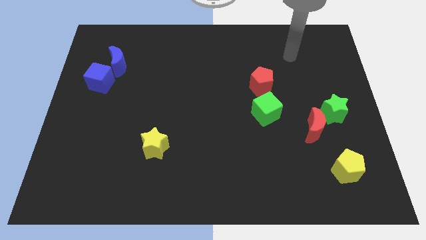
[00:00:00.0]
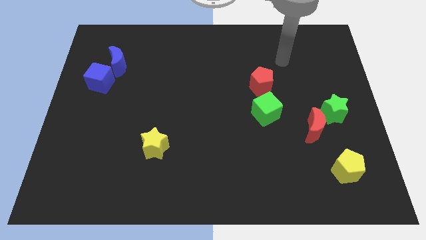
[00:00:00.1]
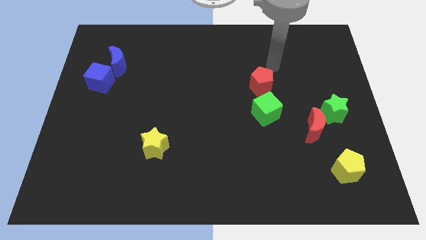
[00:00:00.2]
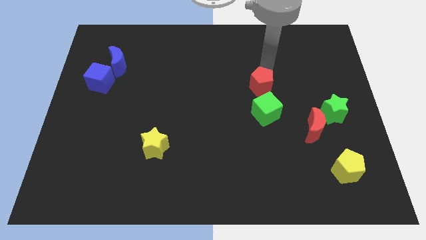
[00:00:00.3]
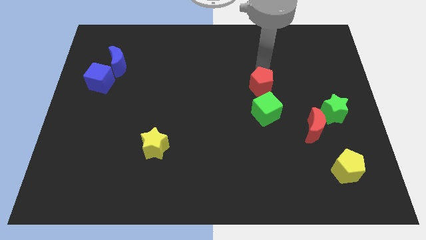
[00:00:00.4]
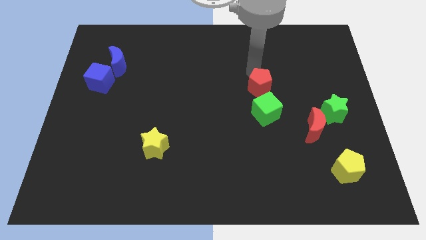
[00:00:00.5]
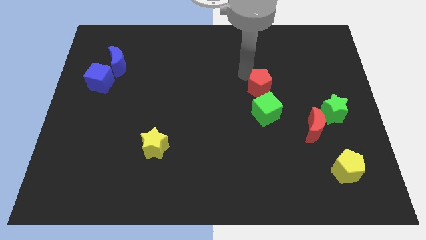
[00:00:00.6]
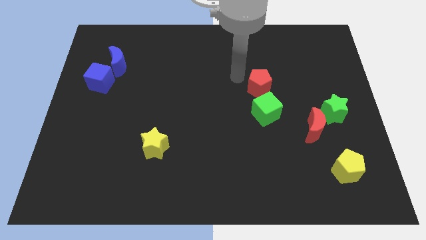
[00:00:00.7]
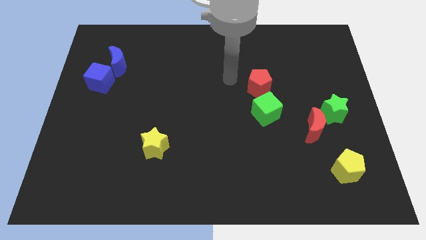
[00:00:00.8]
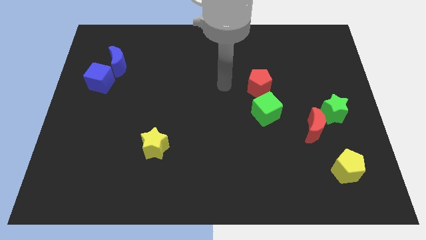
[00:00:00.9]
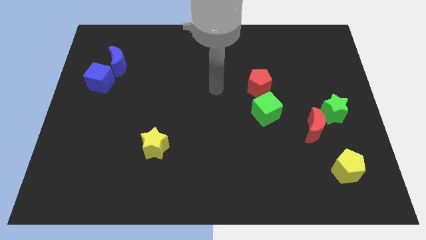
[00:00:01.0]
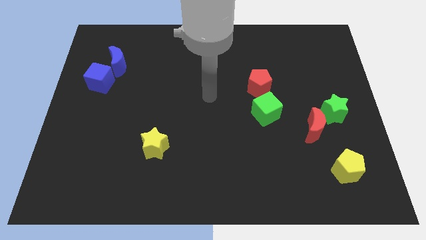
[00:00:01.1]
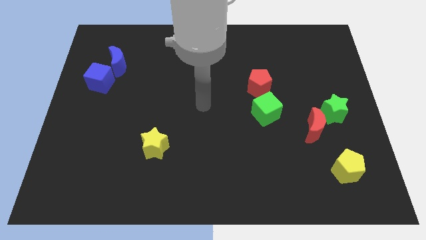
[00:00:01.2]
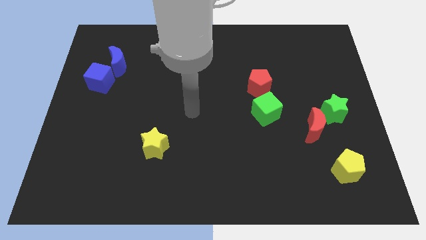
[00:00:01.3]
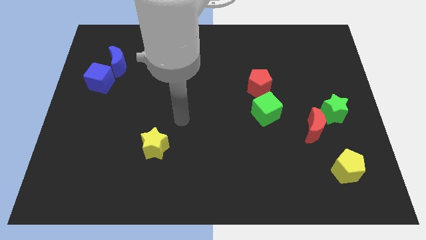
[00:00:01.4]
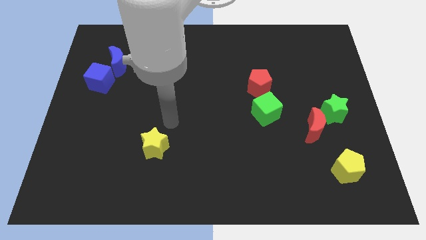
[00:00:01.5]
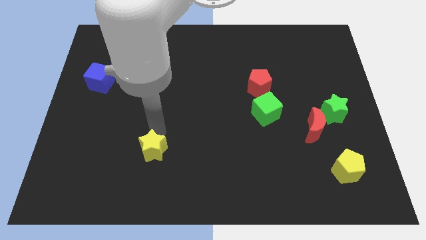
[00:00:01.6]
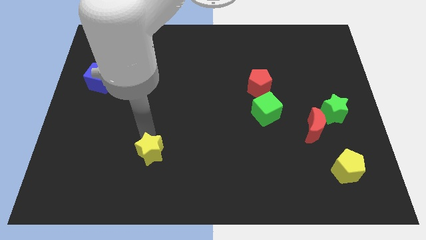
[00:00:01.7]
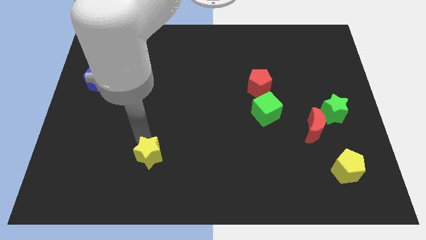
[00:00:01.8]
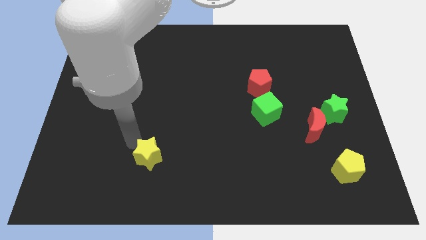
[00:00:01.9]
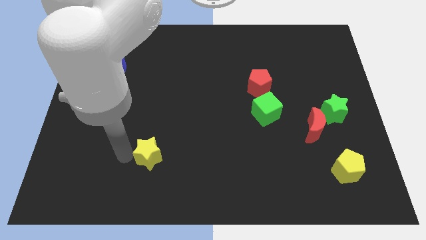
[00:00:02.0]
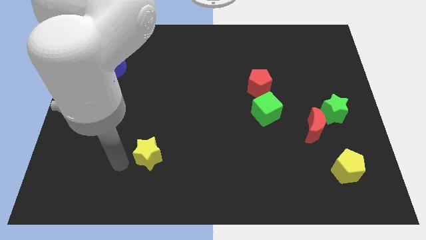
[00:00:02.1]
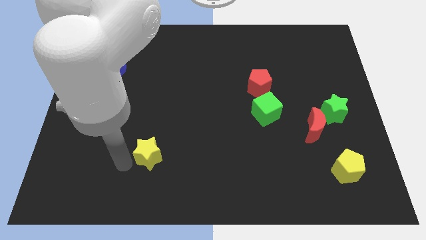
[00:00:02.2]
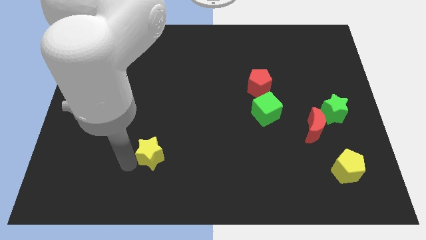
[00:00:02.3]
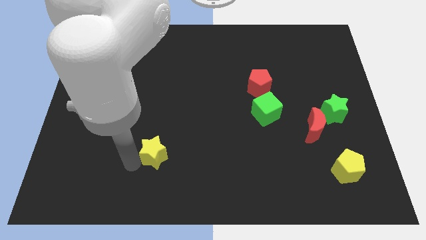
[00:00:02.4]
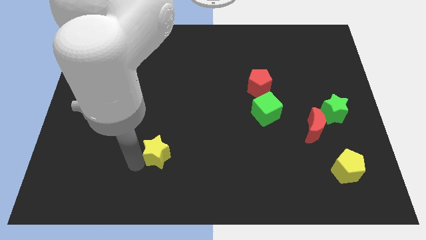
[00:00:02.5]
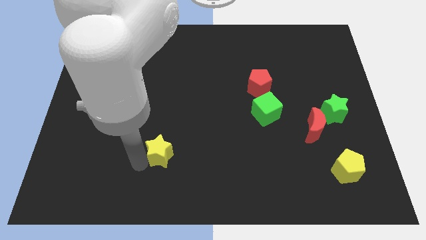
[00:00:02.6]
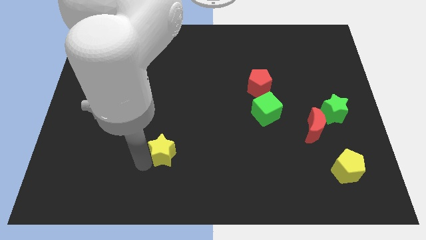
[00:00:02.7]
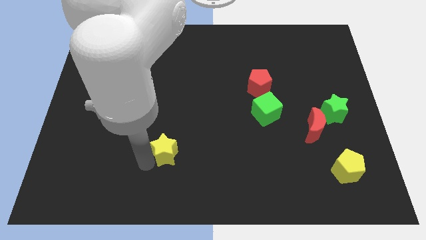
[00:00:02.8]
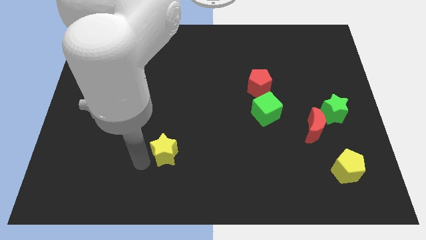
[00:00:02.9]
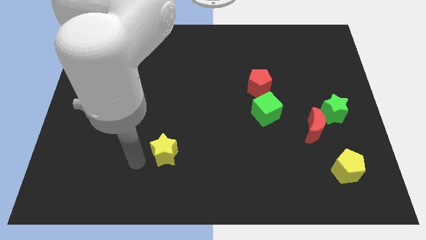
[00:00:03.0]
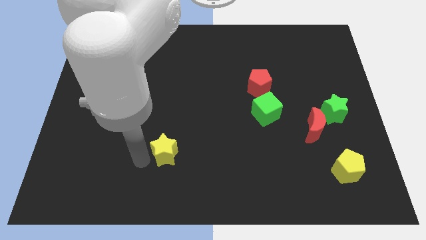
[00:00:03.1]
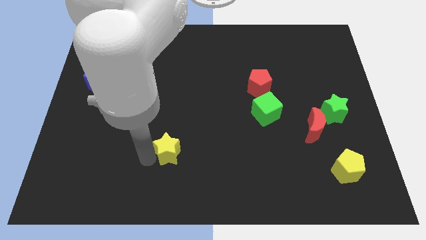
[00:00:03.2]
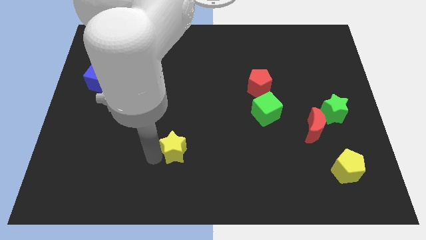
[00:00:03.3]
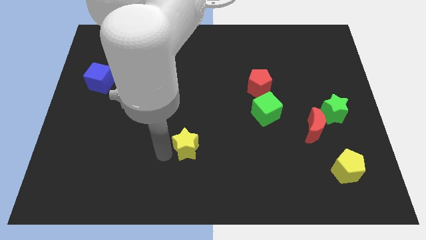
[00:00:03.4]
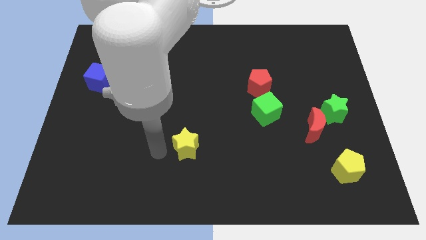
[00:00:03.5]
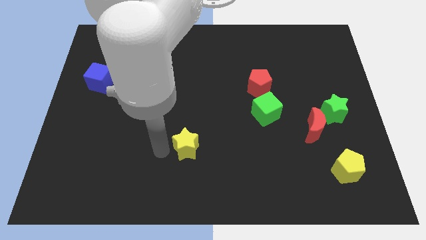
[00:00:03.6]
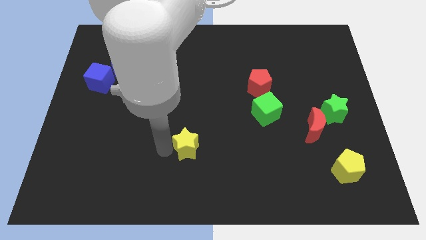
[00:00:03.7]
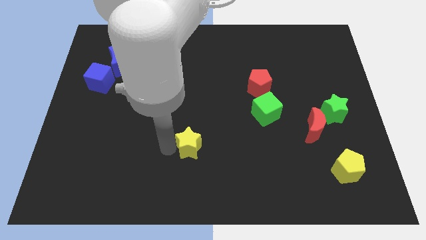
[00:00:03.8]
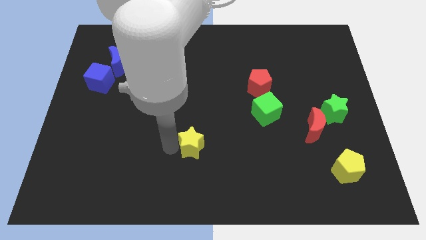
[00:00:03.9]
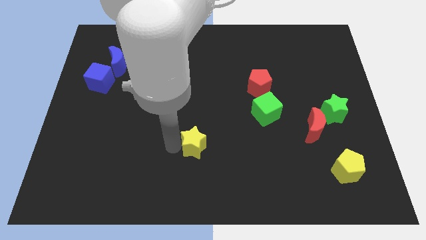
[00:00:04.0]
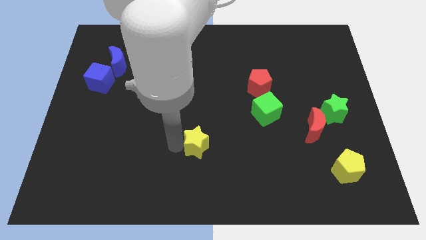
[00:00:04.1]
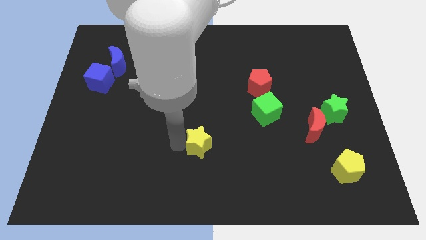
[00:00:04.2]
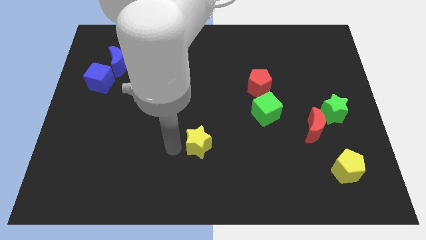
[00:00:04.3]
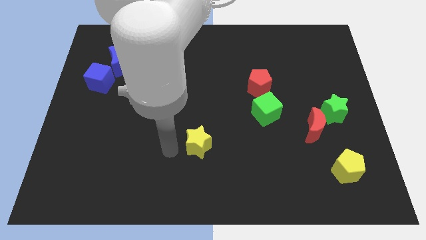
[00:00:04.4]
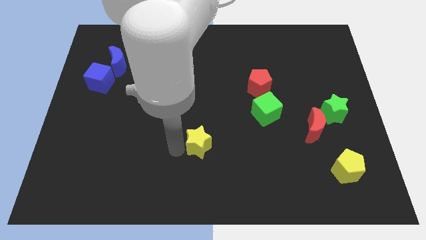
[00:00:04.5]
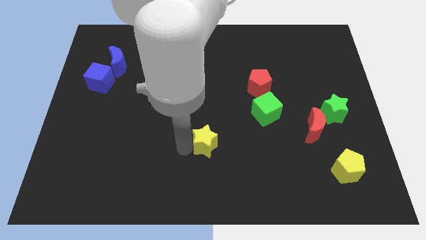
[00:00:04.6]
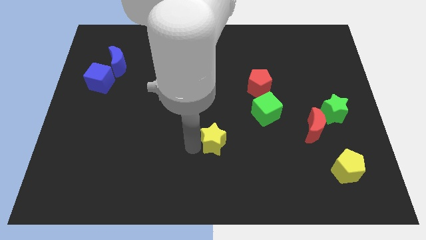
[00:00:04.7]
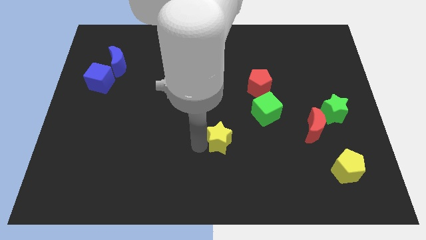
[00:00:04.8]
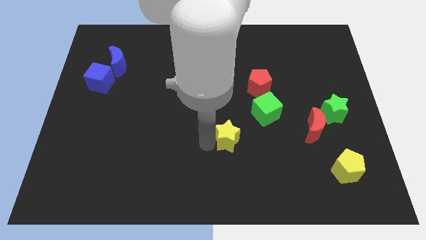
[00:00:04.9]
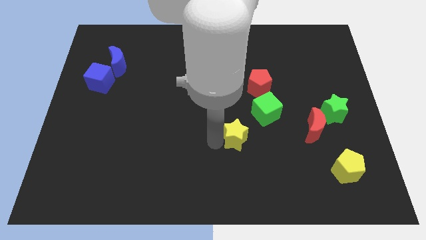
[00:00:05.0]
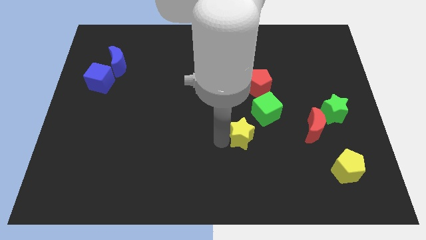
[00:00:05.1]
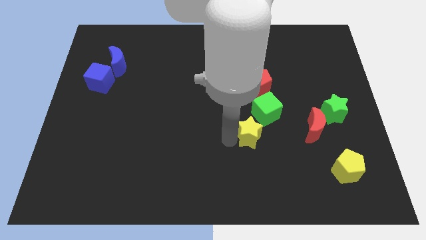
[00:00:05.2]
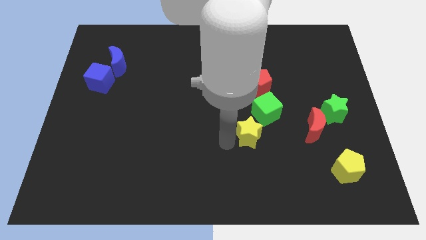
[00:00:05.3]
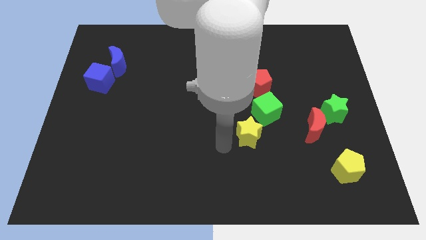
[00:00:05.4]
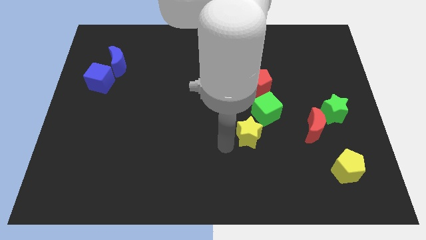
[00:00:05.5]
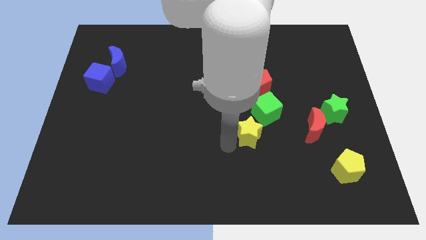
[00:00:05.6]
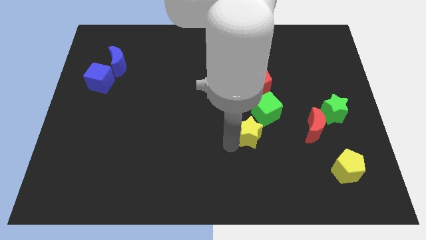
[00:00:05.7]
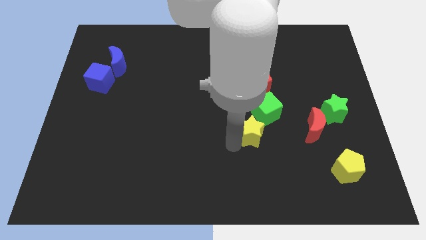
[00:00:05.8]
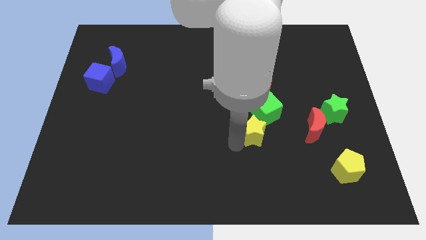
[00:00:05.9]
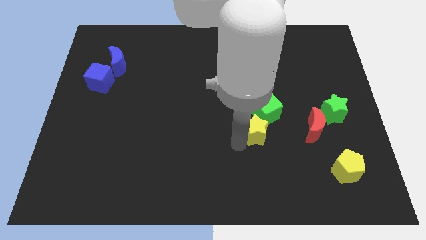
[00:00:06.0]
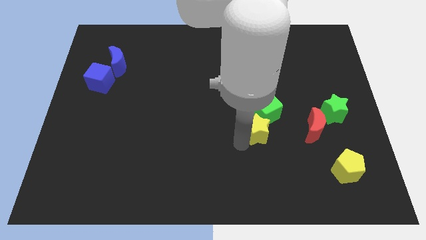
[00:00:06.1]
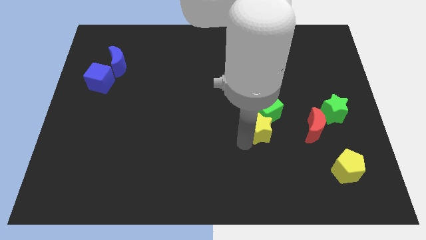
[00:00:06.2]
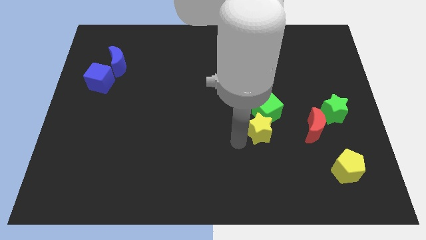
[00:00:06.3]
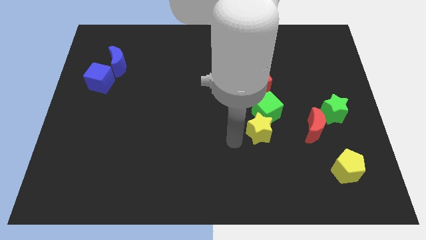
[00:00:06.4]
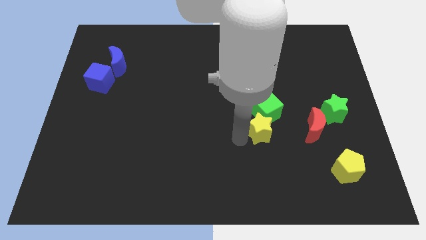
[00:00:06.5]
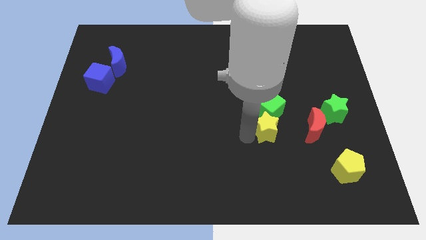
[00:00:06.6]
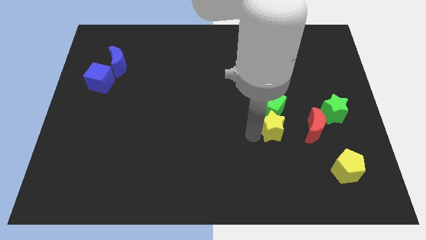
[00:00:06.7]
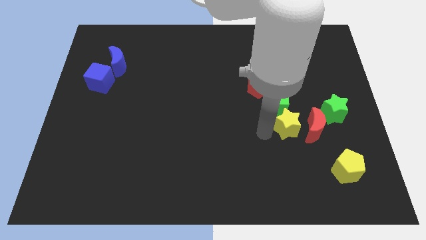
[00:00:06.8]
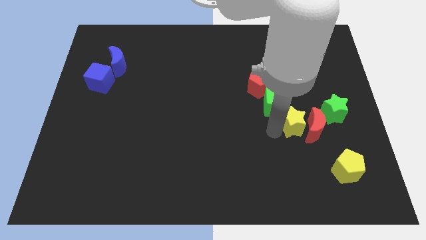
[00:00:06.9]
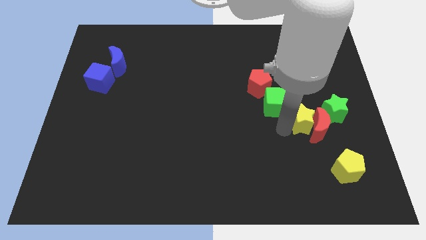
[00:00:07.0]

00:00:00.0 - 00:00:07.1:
put the yellow star to the right of the green cube

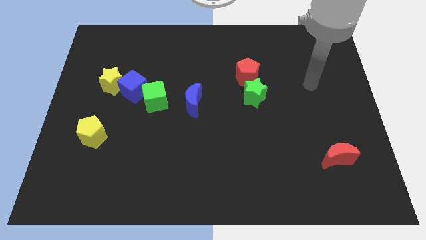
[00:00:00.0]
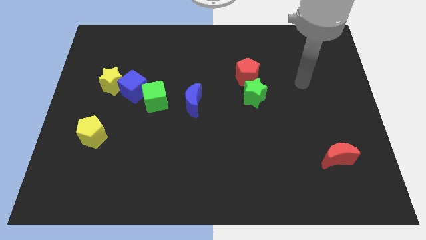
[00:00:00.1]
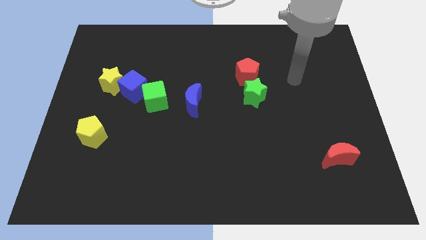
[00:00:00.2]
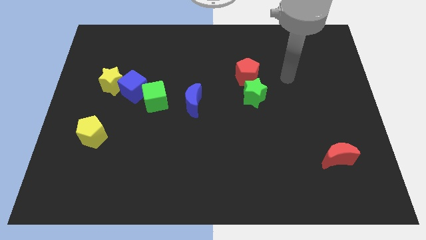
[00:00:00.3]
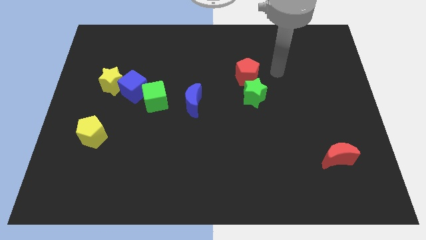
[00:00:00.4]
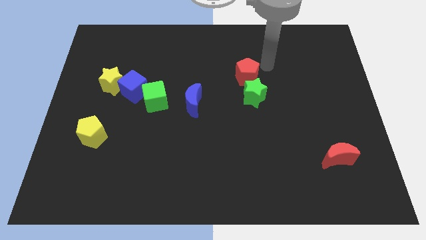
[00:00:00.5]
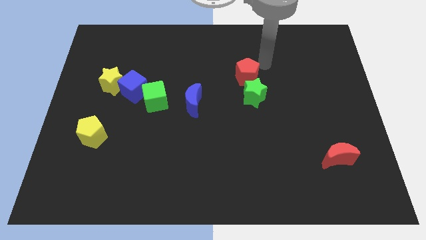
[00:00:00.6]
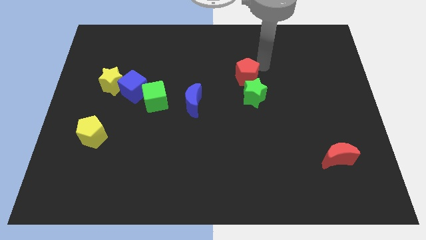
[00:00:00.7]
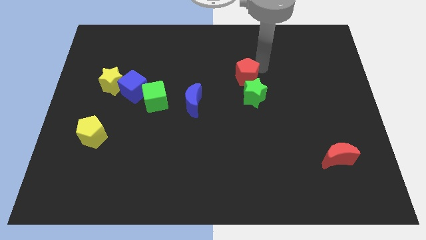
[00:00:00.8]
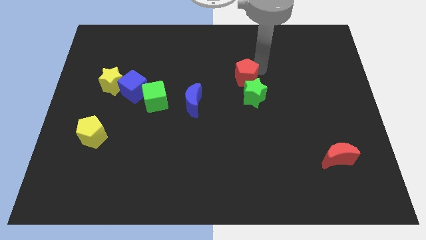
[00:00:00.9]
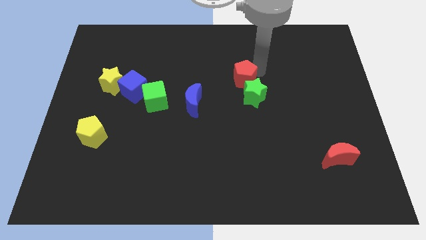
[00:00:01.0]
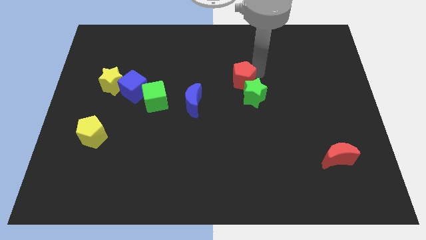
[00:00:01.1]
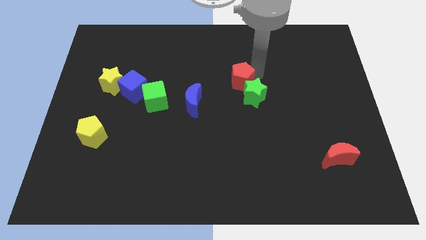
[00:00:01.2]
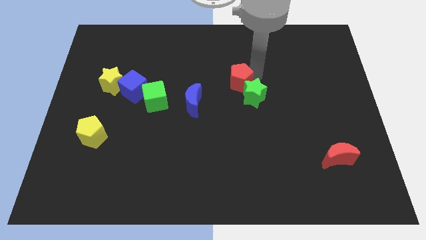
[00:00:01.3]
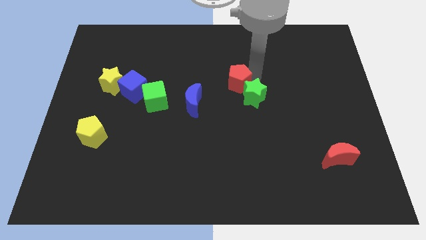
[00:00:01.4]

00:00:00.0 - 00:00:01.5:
slide the red pentagon just left of the green star
